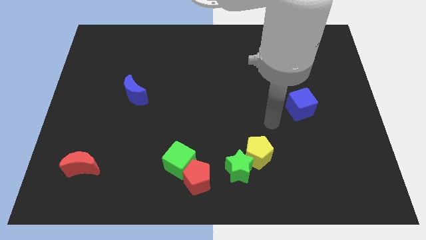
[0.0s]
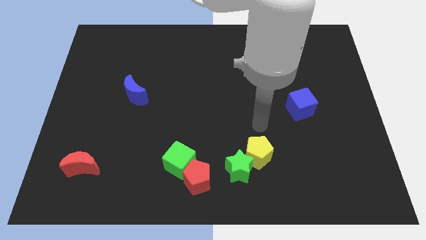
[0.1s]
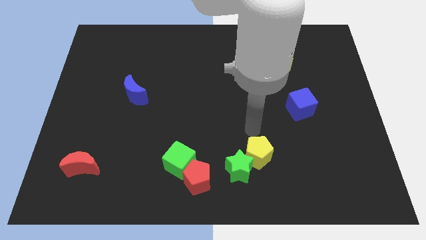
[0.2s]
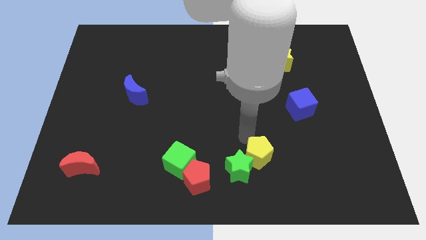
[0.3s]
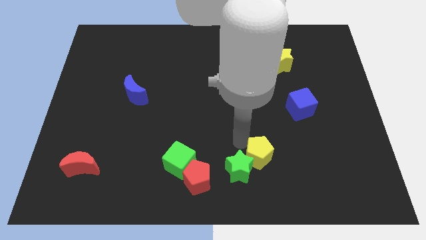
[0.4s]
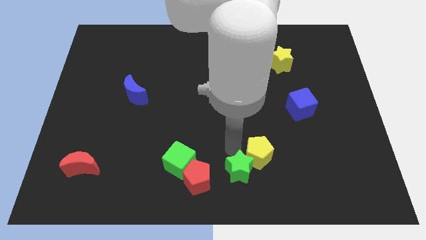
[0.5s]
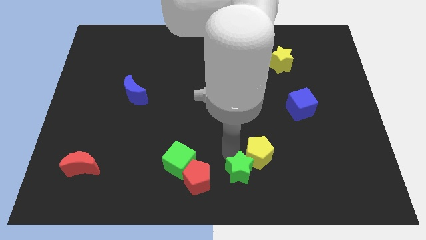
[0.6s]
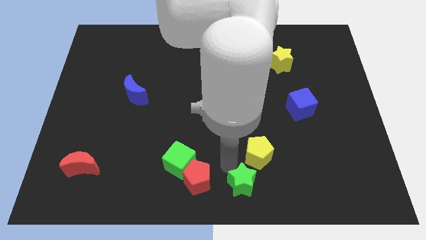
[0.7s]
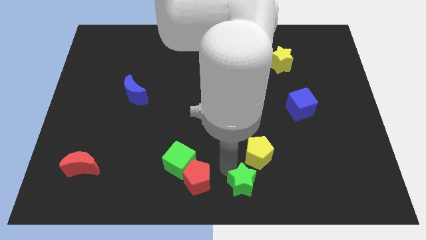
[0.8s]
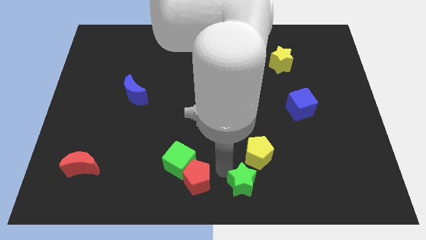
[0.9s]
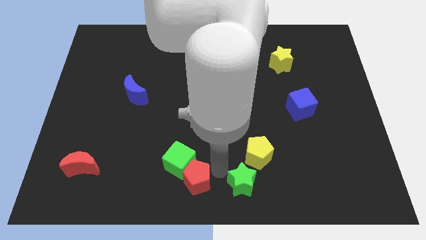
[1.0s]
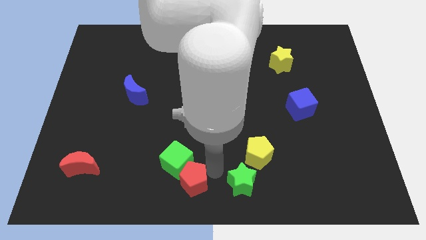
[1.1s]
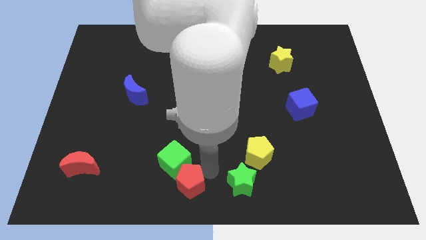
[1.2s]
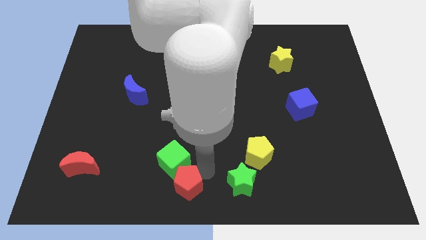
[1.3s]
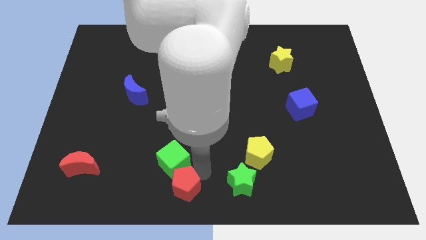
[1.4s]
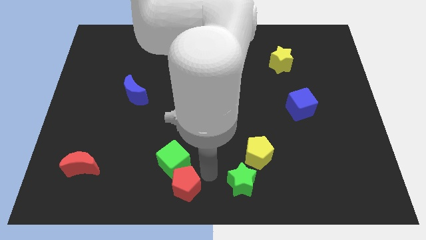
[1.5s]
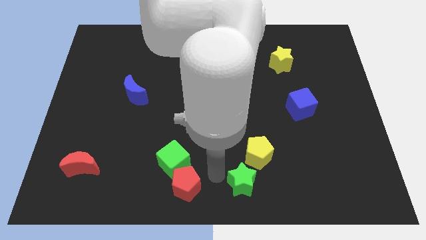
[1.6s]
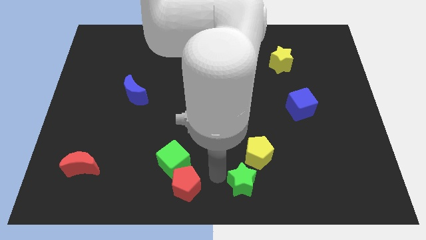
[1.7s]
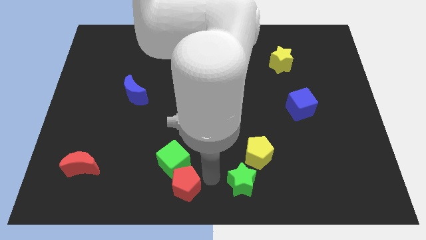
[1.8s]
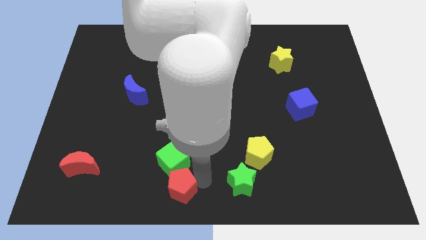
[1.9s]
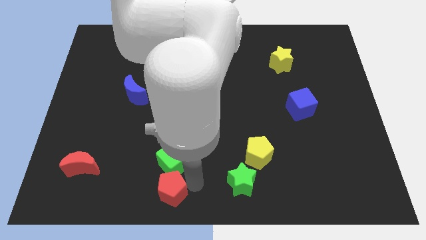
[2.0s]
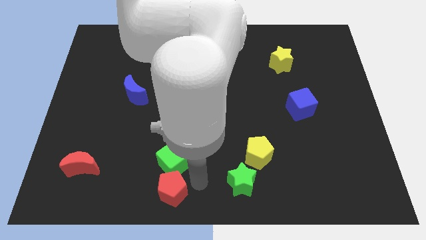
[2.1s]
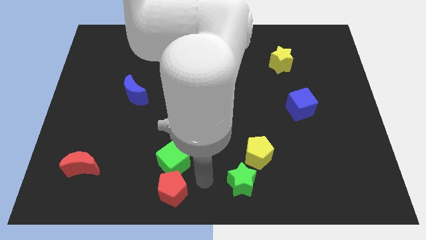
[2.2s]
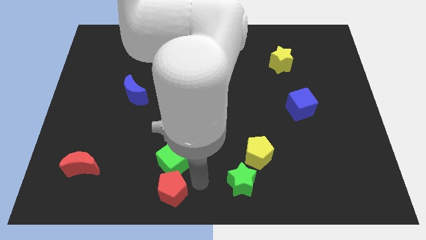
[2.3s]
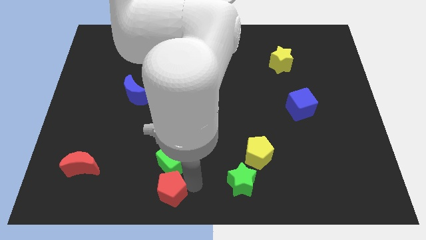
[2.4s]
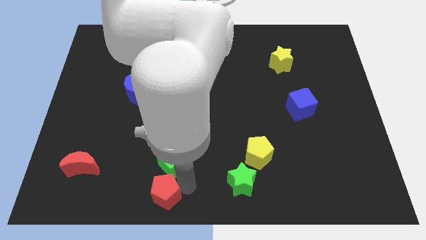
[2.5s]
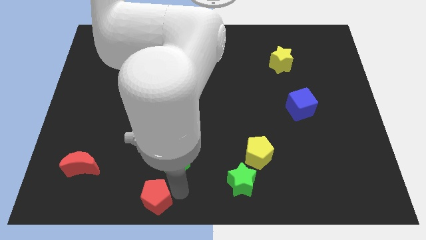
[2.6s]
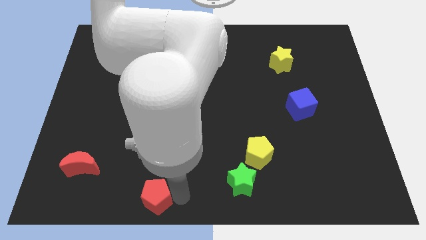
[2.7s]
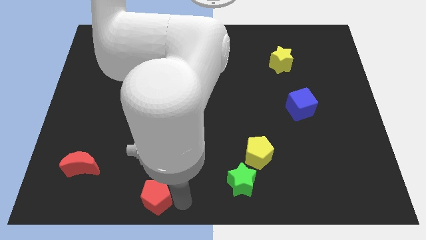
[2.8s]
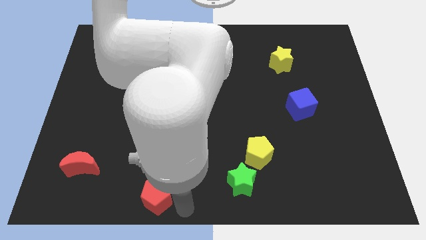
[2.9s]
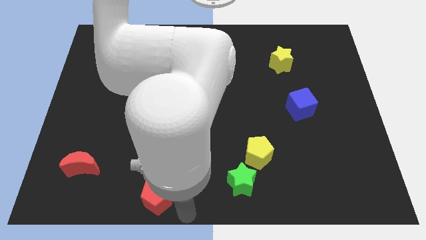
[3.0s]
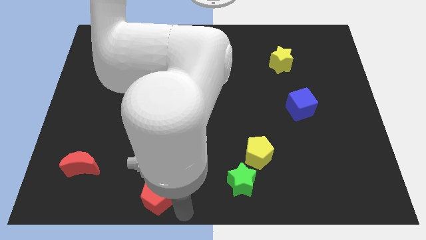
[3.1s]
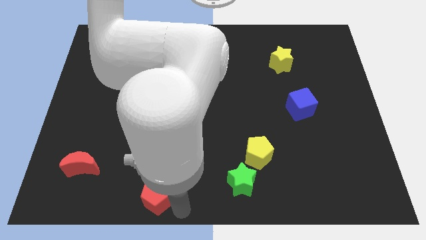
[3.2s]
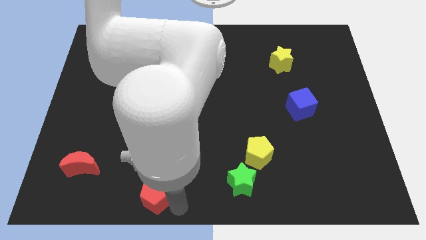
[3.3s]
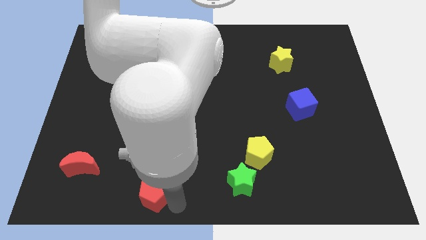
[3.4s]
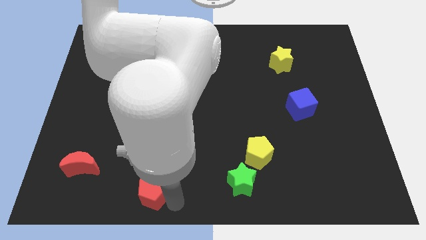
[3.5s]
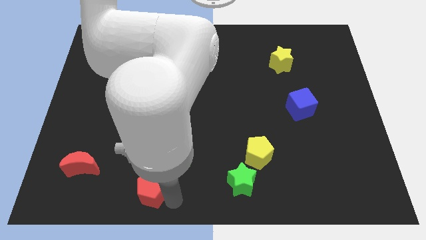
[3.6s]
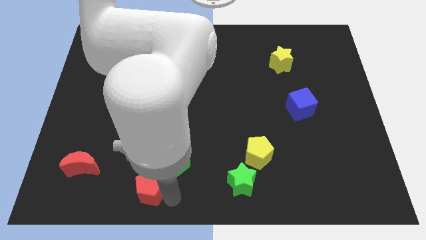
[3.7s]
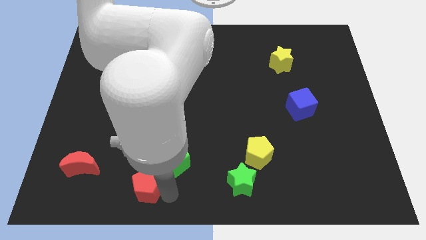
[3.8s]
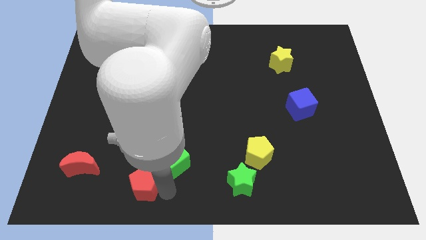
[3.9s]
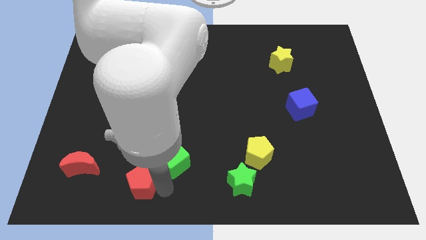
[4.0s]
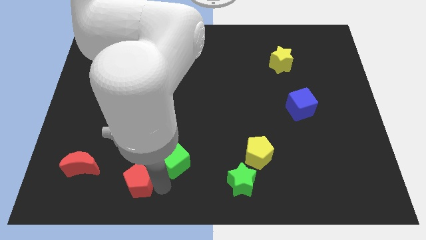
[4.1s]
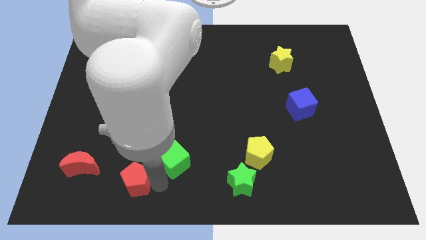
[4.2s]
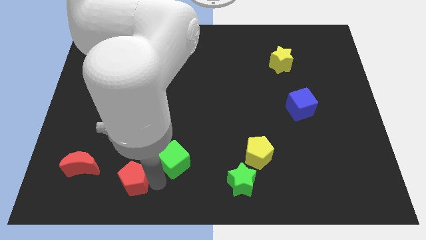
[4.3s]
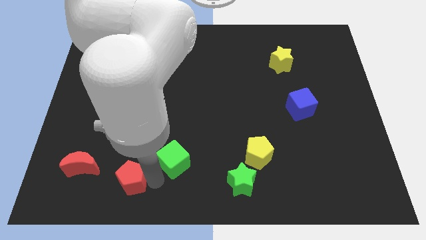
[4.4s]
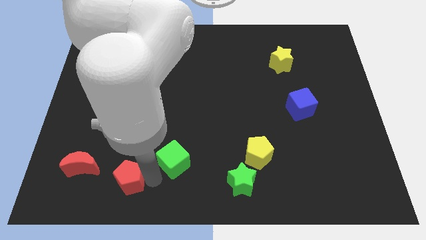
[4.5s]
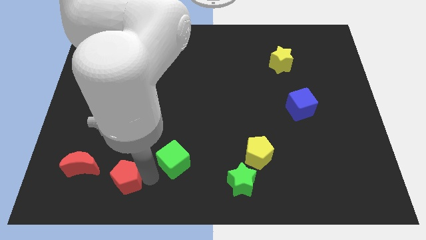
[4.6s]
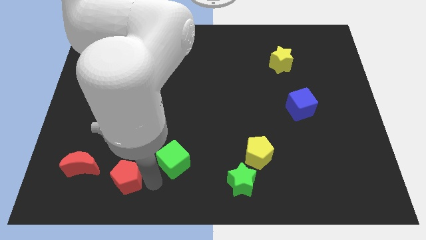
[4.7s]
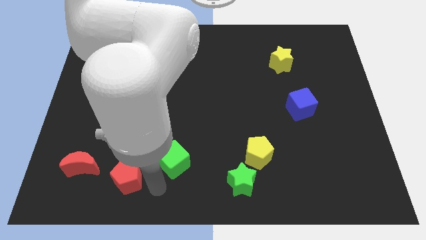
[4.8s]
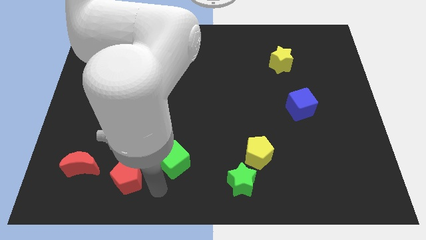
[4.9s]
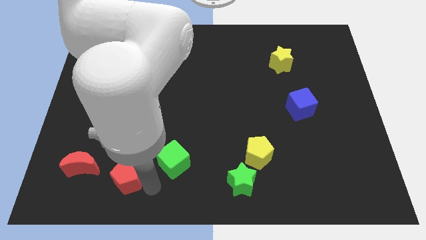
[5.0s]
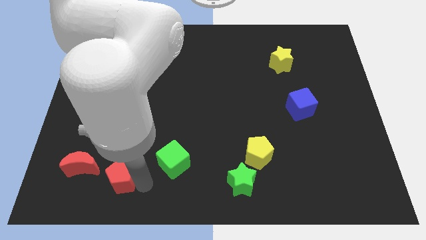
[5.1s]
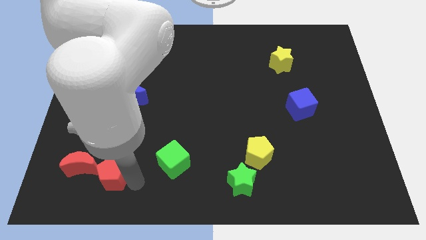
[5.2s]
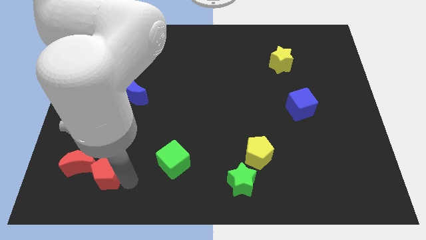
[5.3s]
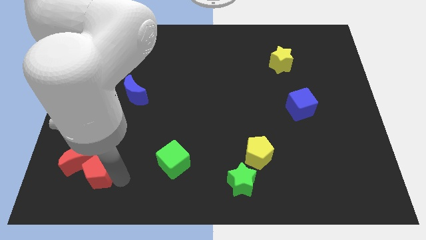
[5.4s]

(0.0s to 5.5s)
slide the red pentagon to the red moon

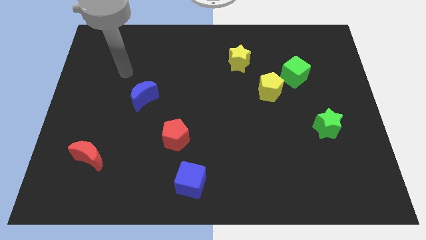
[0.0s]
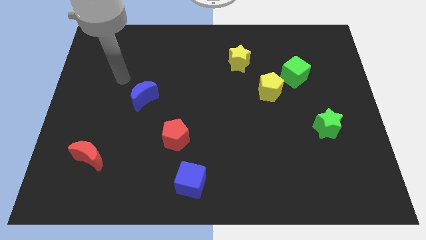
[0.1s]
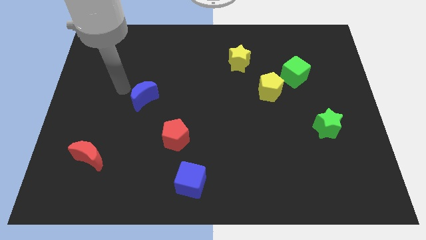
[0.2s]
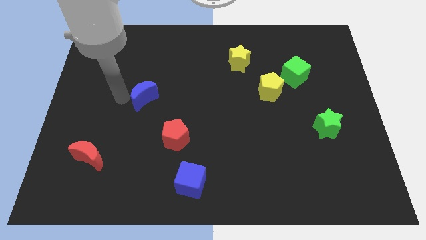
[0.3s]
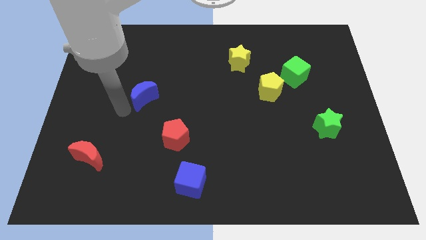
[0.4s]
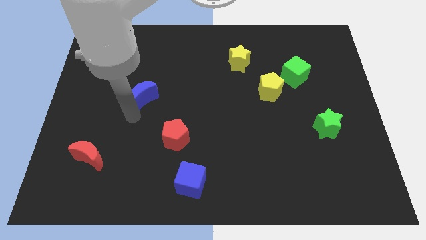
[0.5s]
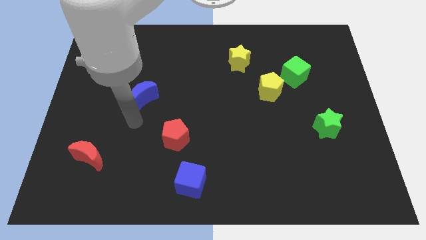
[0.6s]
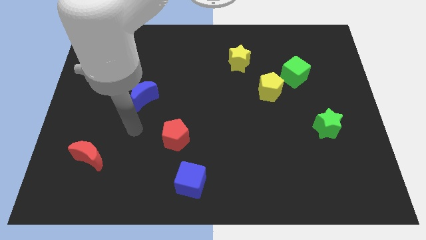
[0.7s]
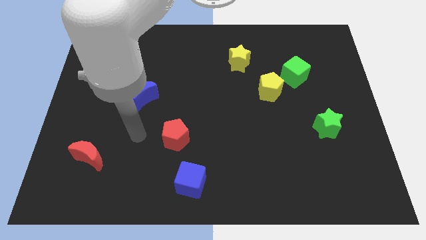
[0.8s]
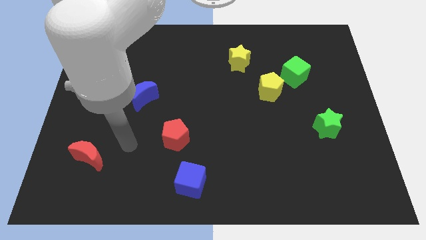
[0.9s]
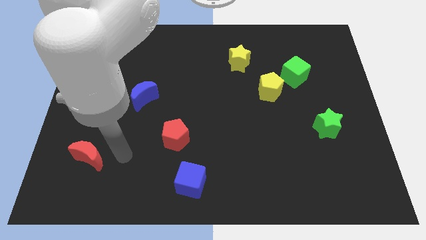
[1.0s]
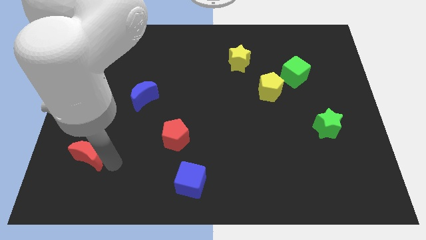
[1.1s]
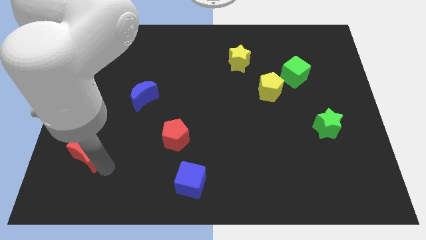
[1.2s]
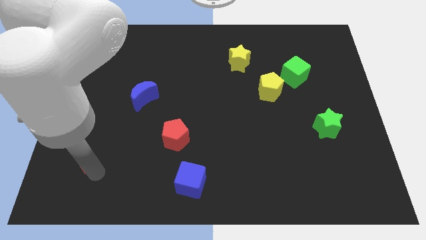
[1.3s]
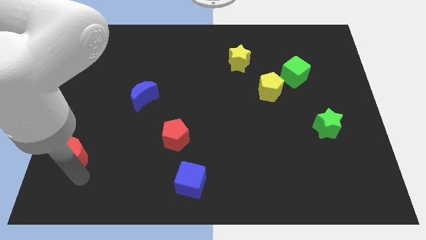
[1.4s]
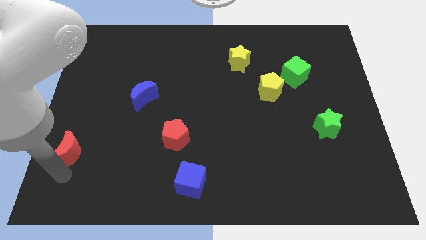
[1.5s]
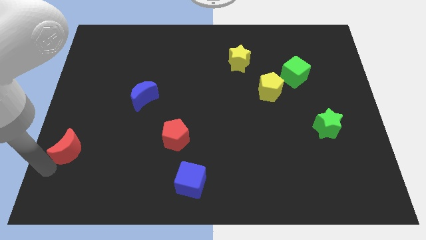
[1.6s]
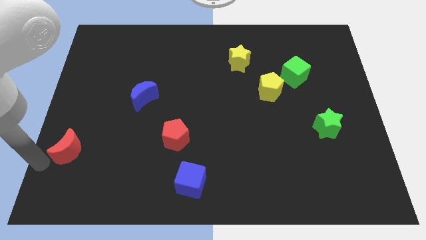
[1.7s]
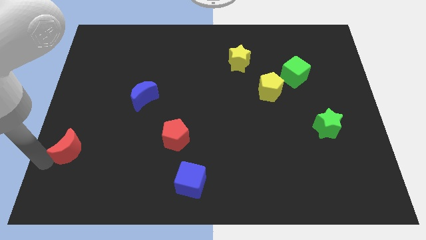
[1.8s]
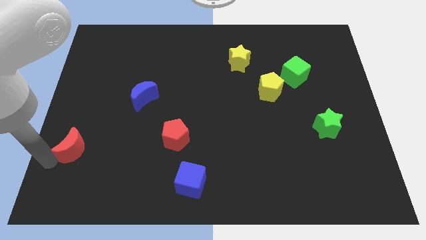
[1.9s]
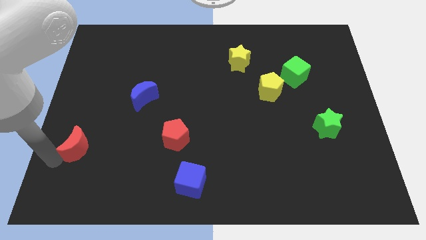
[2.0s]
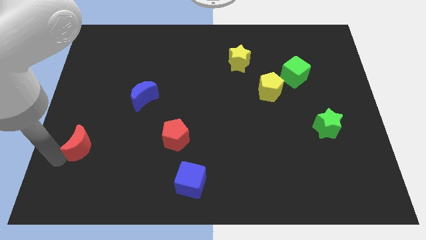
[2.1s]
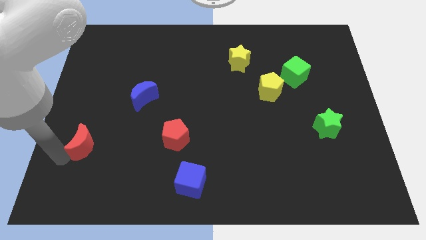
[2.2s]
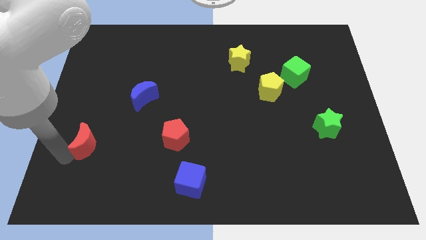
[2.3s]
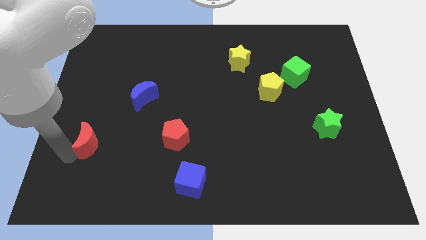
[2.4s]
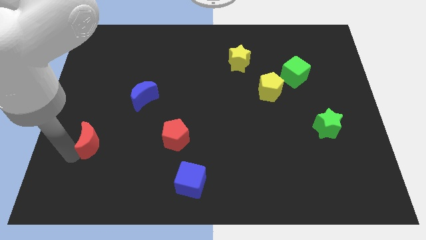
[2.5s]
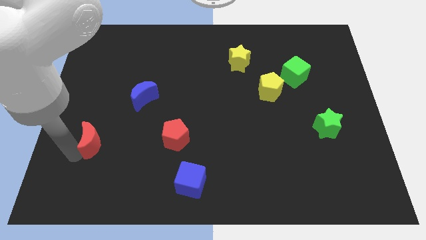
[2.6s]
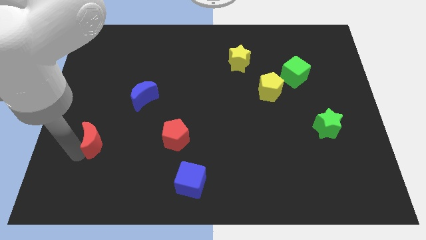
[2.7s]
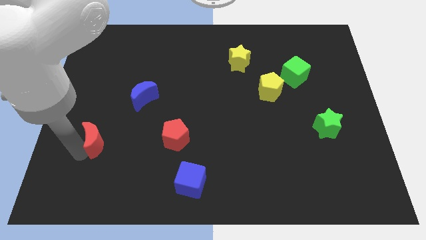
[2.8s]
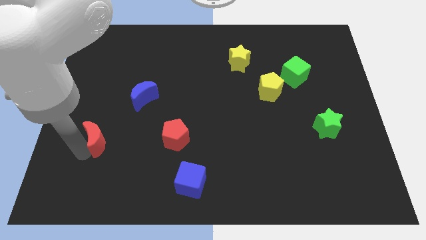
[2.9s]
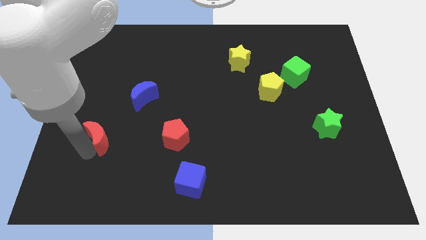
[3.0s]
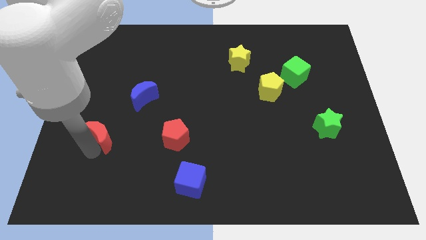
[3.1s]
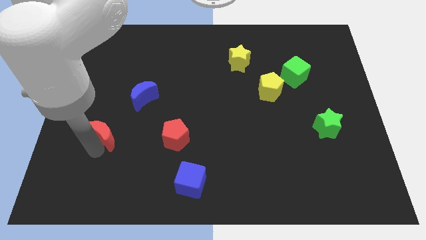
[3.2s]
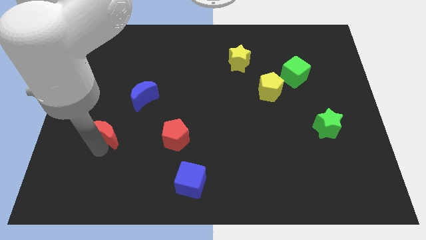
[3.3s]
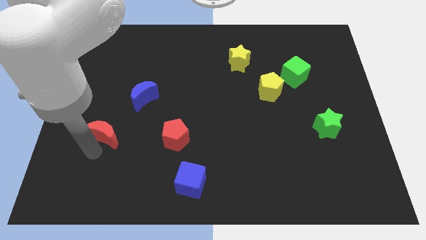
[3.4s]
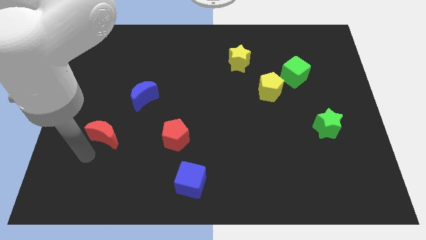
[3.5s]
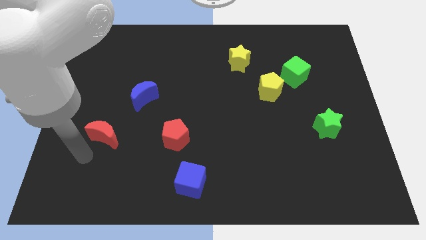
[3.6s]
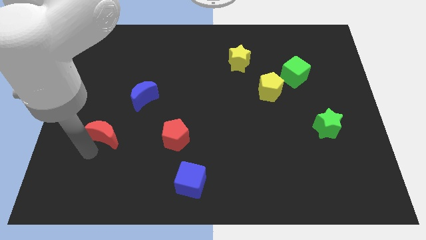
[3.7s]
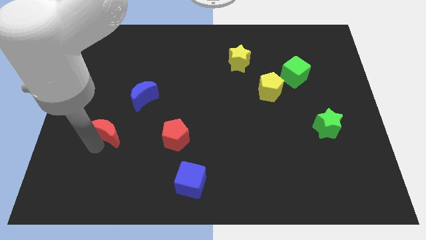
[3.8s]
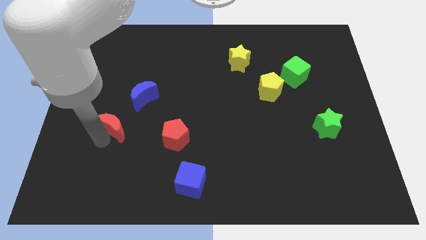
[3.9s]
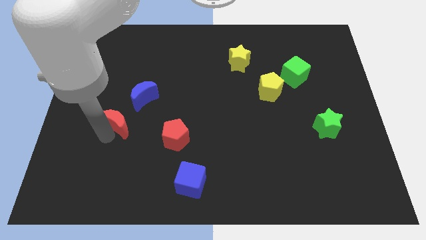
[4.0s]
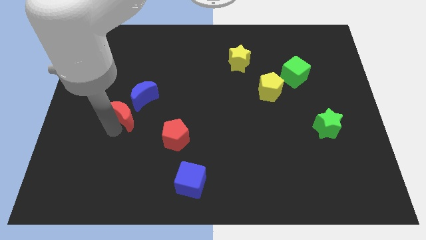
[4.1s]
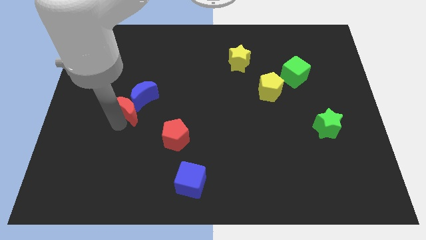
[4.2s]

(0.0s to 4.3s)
move the red moon next to the blue moon
